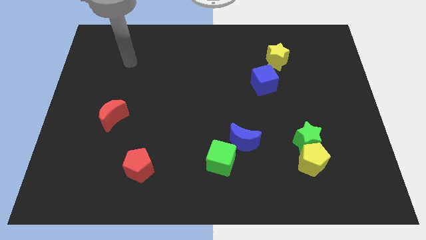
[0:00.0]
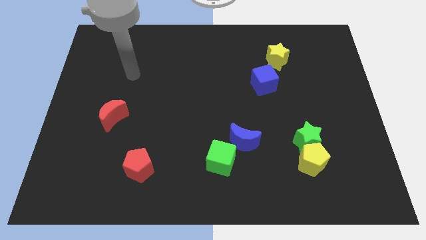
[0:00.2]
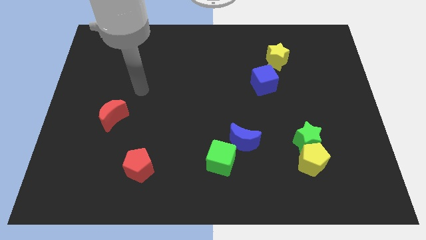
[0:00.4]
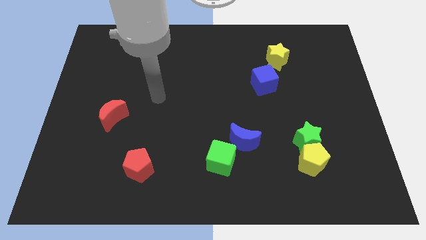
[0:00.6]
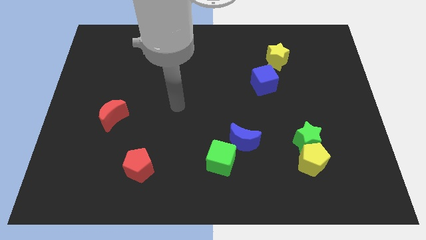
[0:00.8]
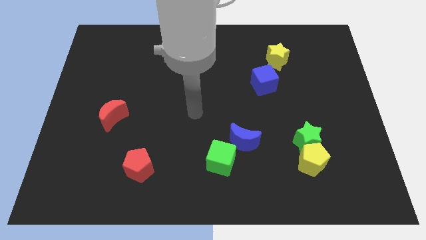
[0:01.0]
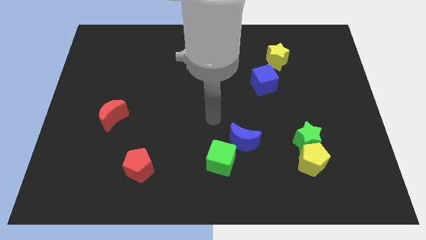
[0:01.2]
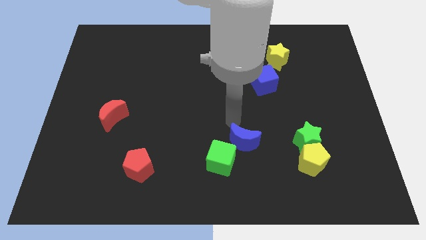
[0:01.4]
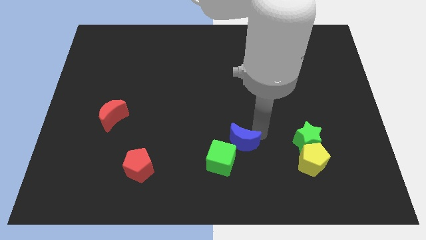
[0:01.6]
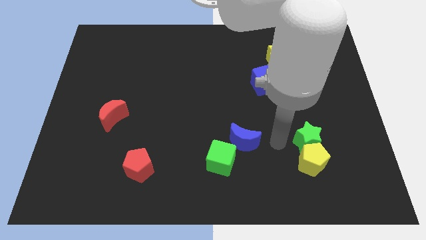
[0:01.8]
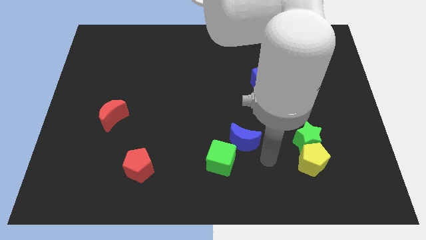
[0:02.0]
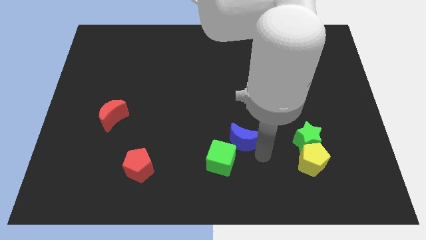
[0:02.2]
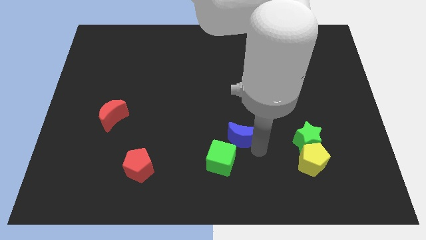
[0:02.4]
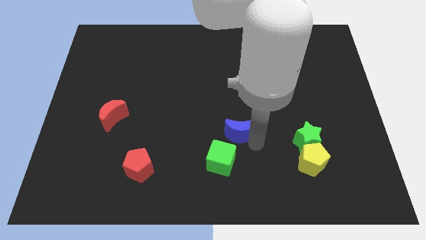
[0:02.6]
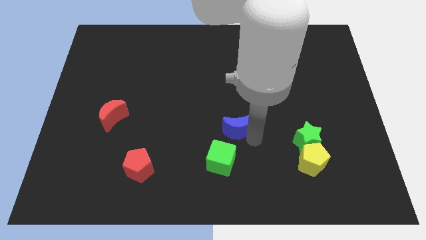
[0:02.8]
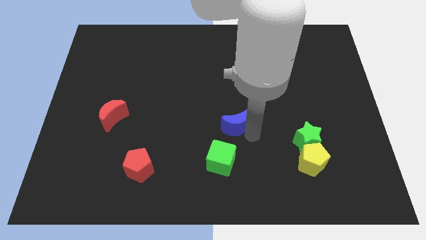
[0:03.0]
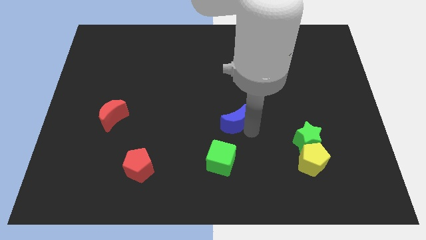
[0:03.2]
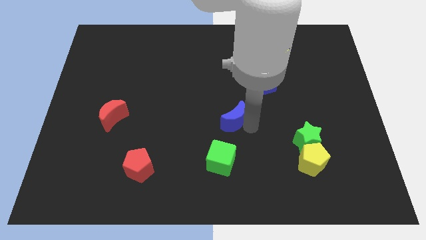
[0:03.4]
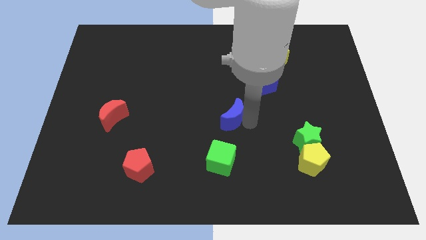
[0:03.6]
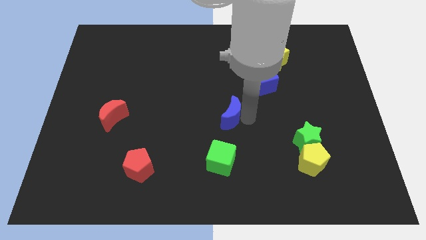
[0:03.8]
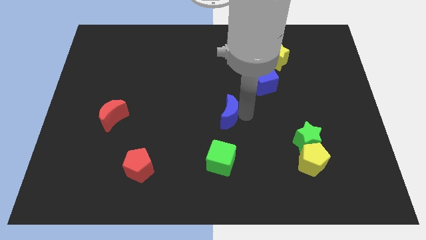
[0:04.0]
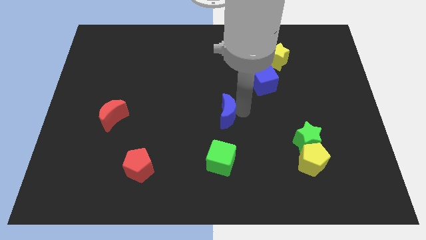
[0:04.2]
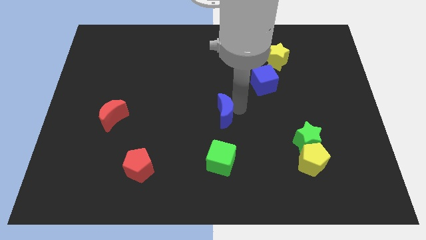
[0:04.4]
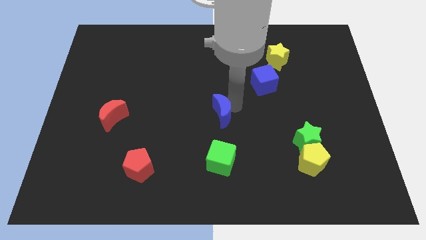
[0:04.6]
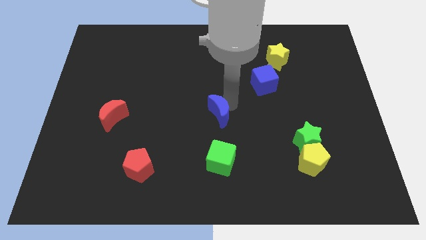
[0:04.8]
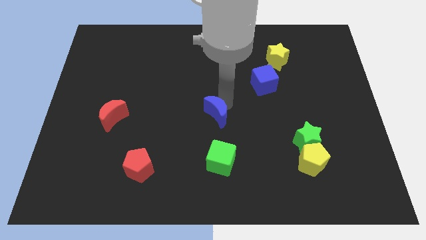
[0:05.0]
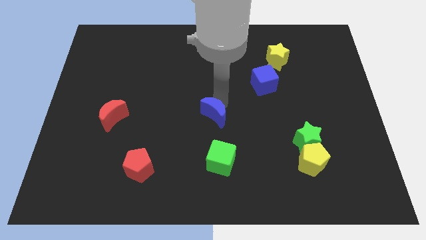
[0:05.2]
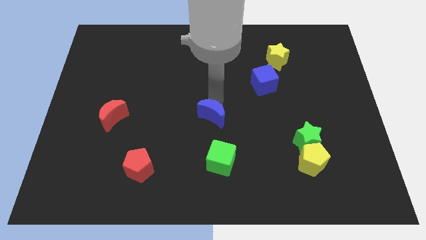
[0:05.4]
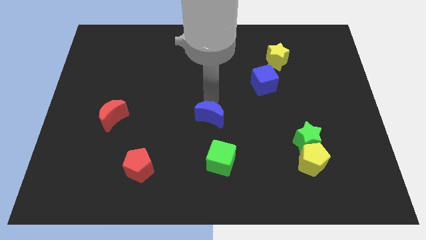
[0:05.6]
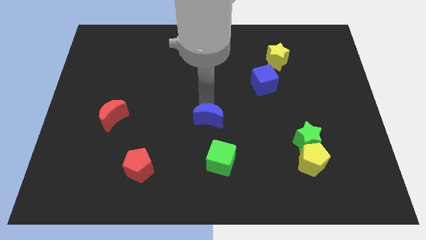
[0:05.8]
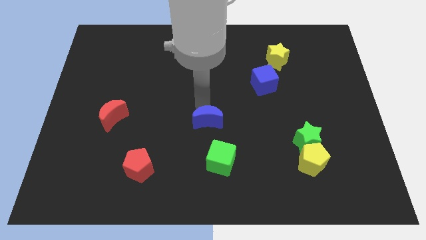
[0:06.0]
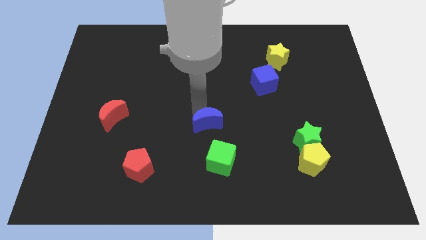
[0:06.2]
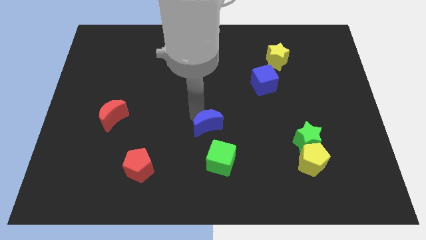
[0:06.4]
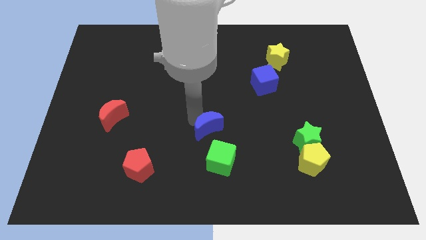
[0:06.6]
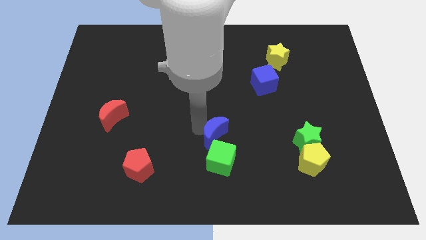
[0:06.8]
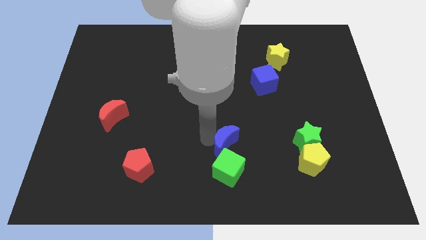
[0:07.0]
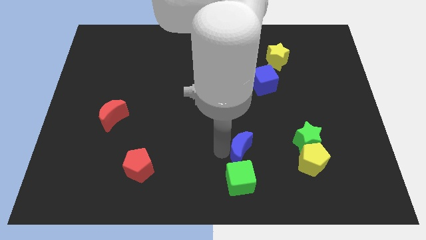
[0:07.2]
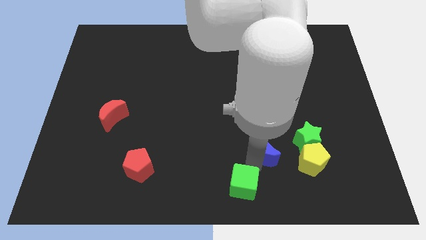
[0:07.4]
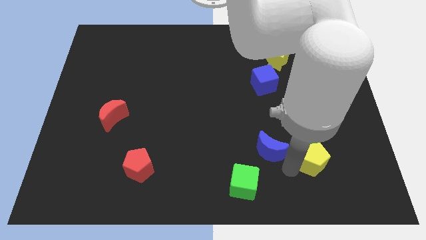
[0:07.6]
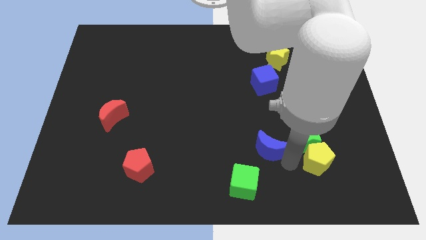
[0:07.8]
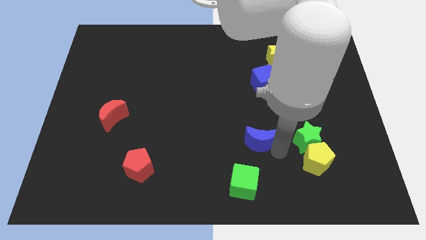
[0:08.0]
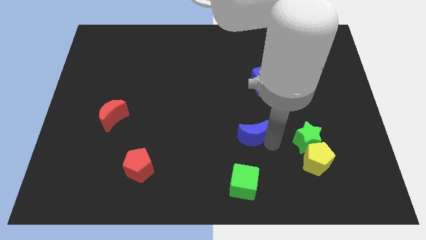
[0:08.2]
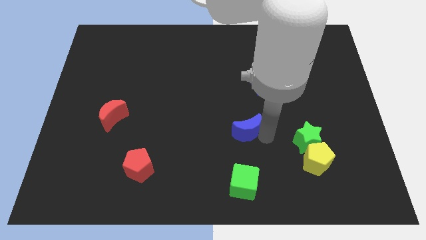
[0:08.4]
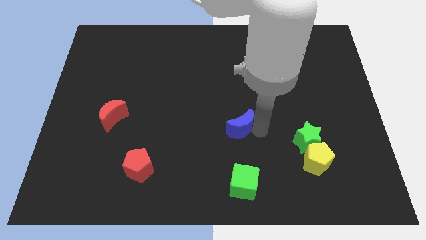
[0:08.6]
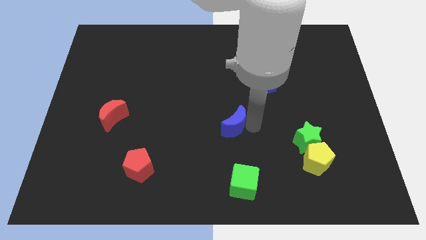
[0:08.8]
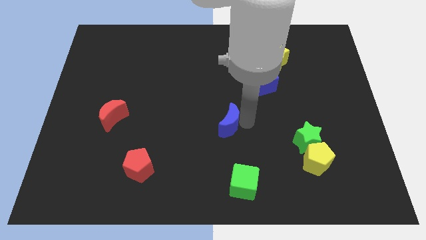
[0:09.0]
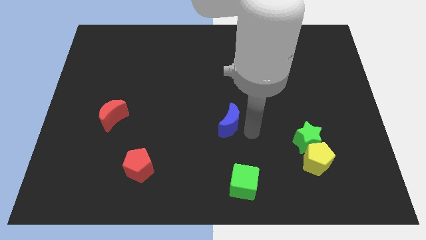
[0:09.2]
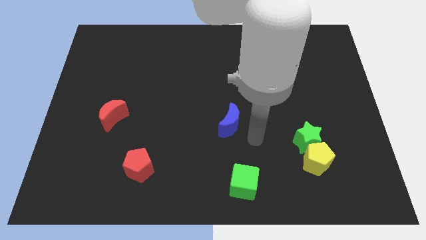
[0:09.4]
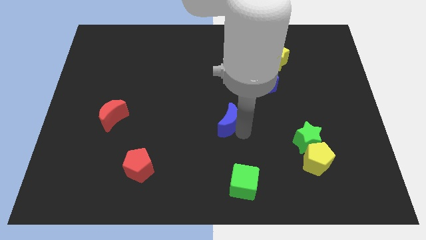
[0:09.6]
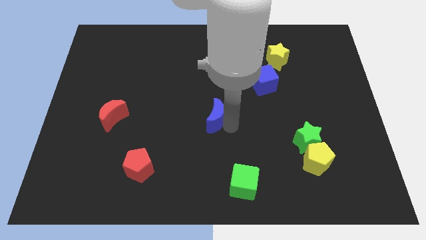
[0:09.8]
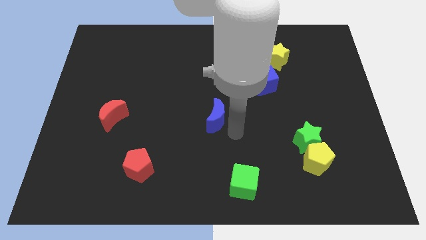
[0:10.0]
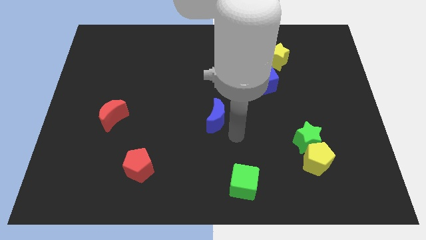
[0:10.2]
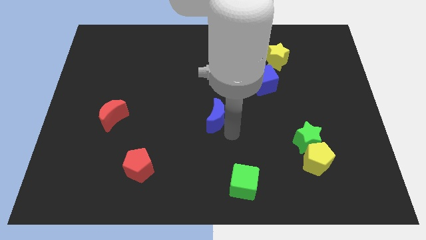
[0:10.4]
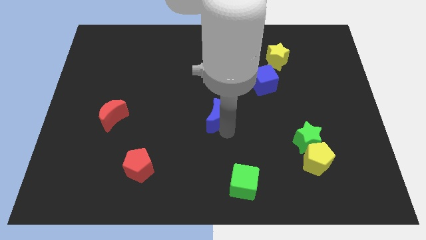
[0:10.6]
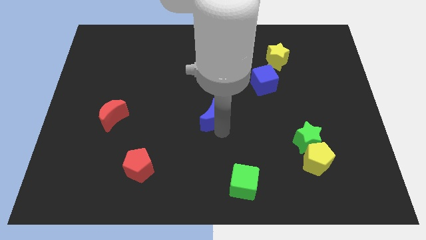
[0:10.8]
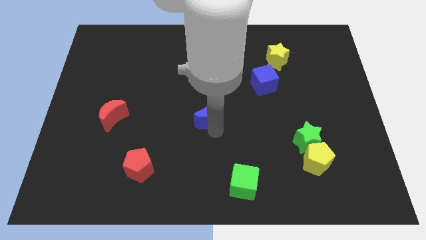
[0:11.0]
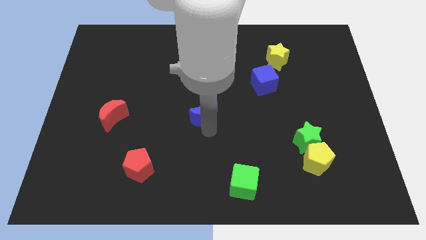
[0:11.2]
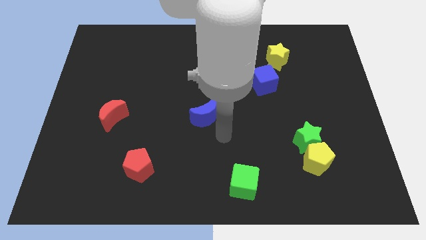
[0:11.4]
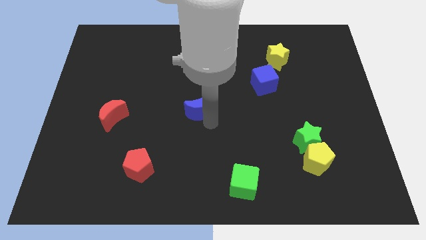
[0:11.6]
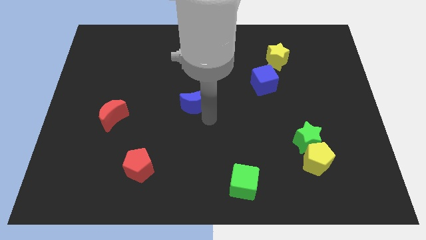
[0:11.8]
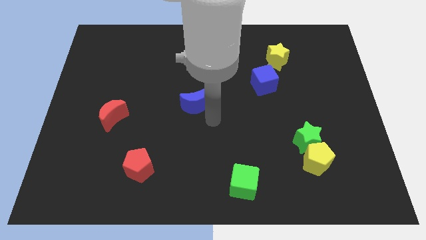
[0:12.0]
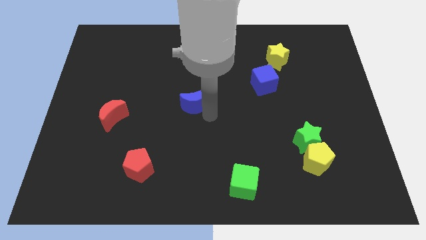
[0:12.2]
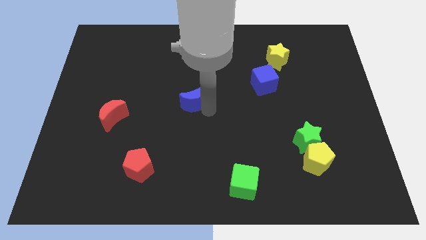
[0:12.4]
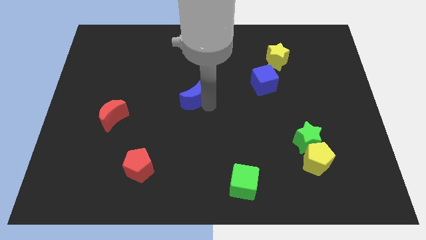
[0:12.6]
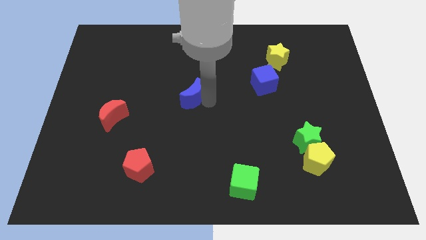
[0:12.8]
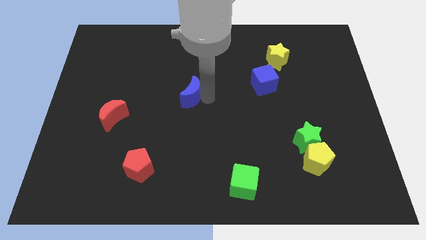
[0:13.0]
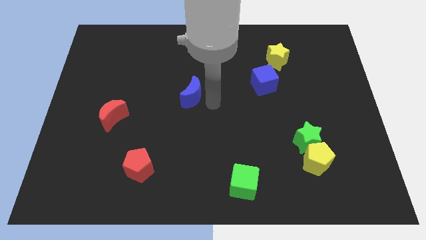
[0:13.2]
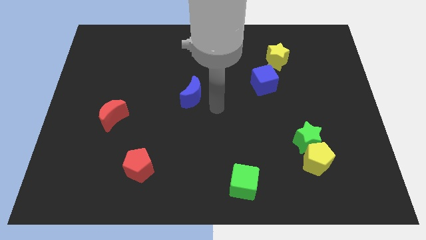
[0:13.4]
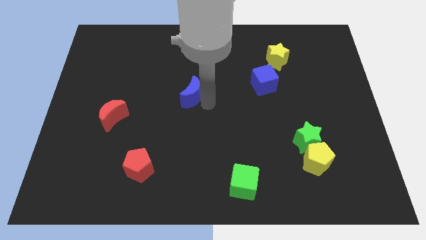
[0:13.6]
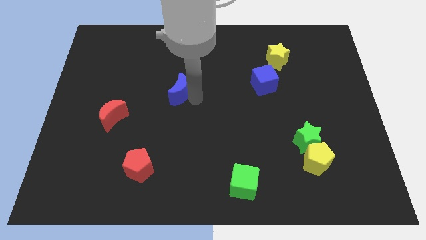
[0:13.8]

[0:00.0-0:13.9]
move the blue moon upwards and to the left

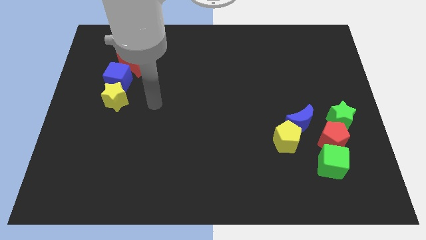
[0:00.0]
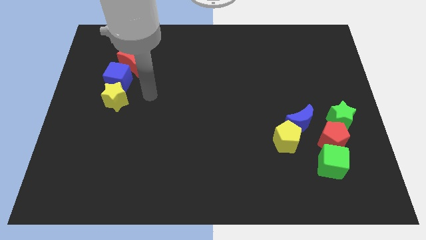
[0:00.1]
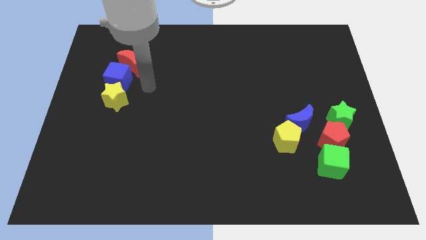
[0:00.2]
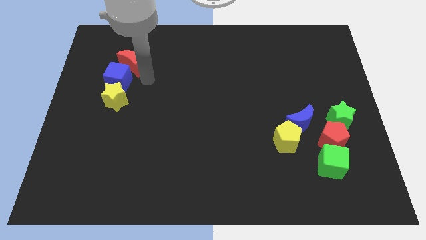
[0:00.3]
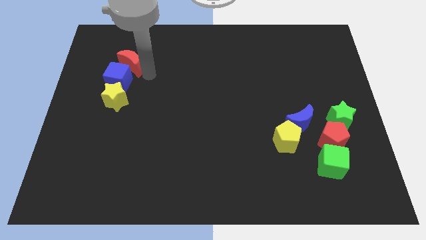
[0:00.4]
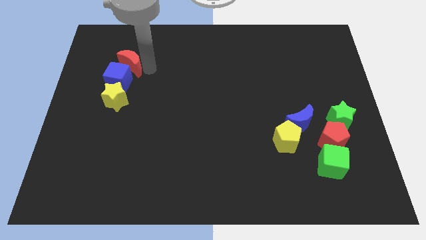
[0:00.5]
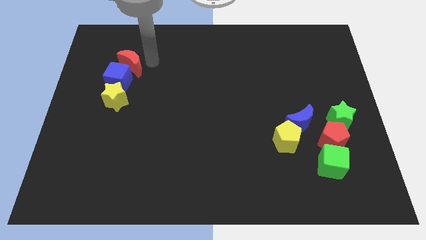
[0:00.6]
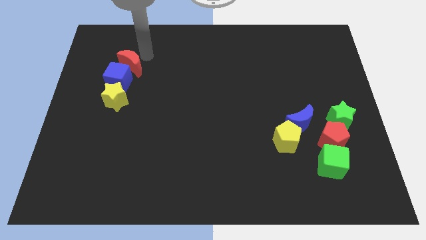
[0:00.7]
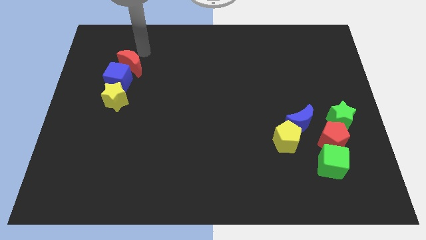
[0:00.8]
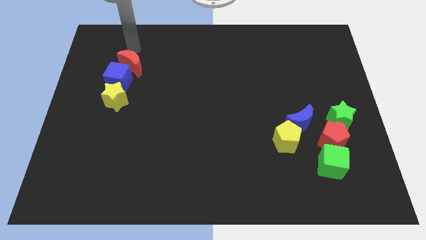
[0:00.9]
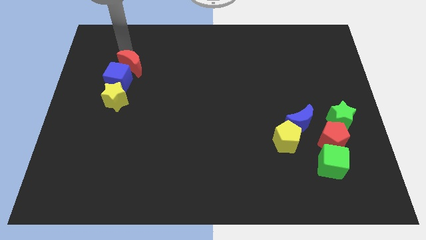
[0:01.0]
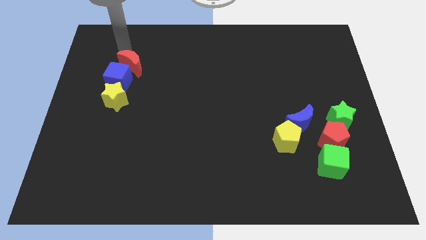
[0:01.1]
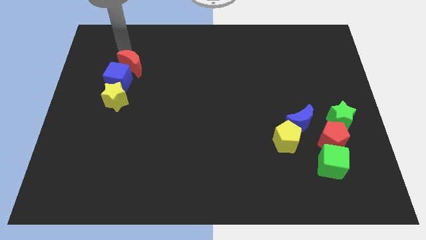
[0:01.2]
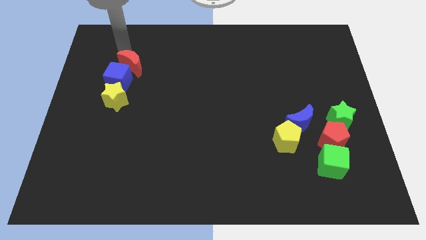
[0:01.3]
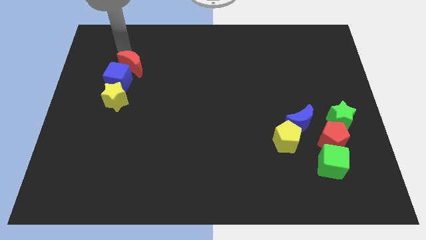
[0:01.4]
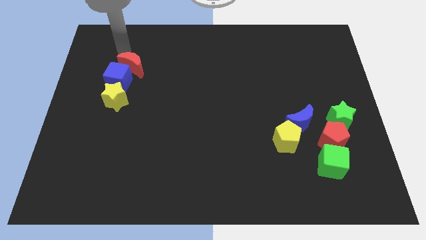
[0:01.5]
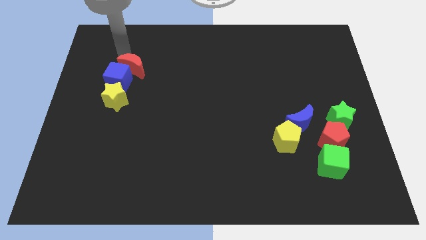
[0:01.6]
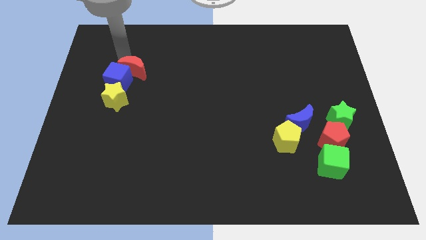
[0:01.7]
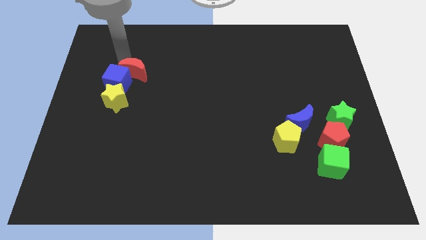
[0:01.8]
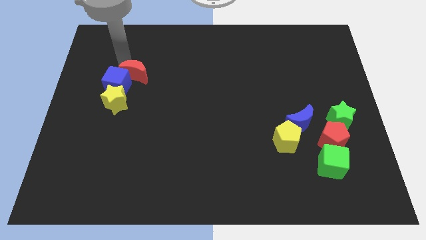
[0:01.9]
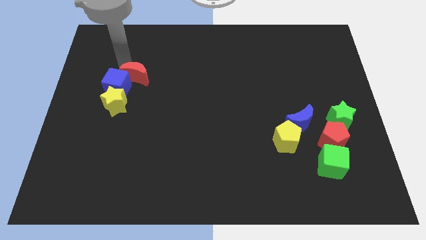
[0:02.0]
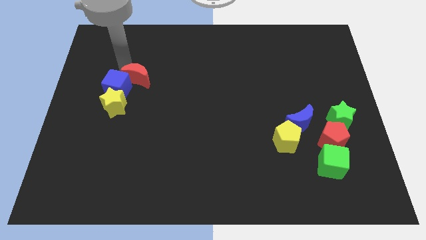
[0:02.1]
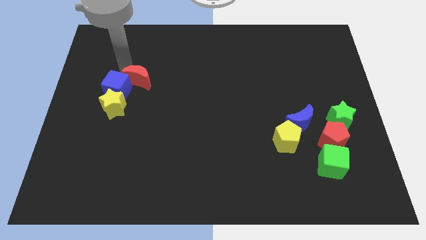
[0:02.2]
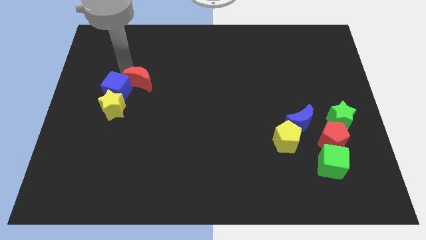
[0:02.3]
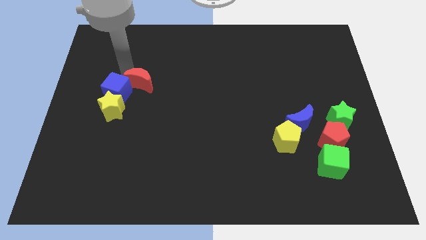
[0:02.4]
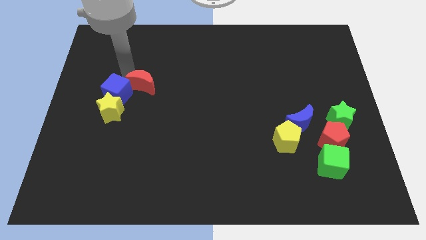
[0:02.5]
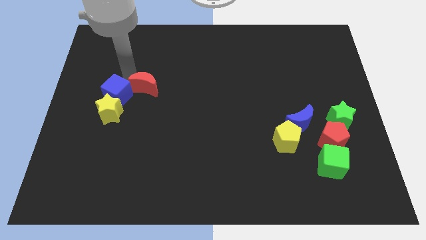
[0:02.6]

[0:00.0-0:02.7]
slightly move the red moon downwards
